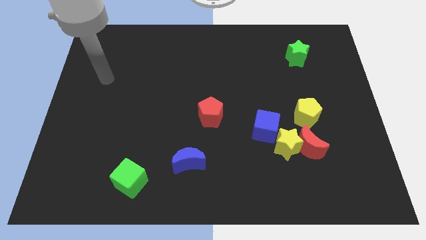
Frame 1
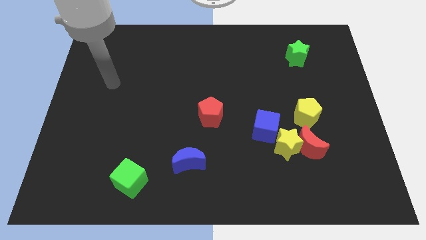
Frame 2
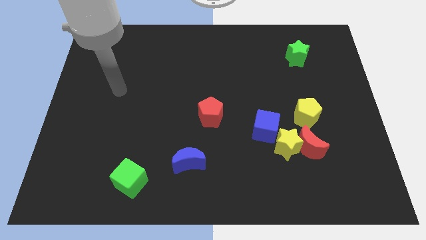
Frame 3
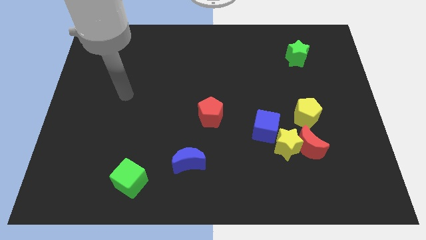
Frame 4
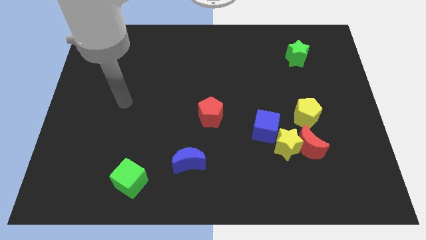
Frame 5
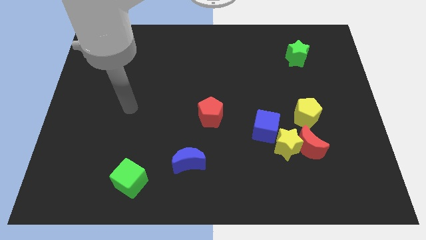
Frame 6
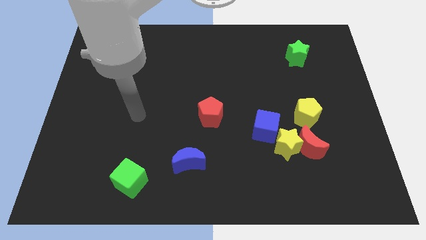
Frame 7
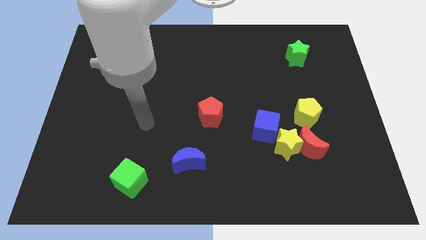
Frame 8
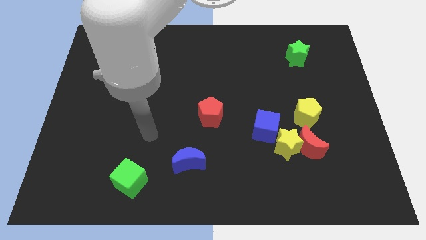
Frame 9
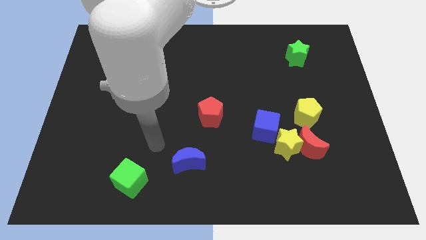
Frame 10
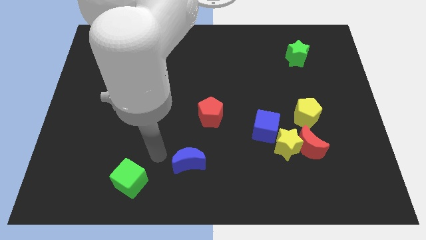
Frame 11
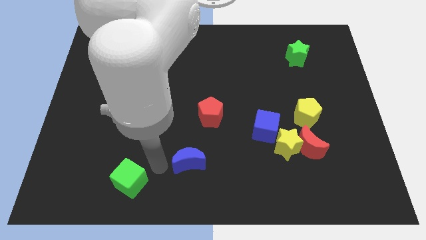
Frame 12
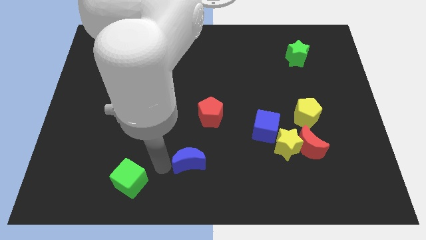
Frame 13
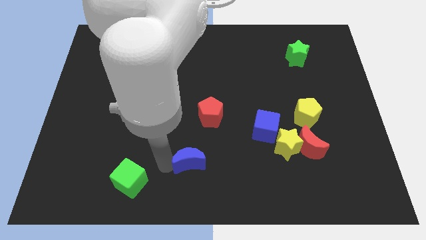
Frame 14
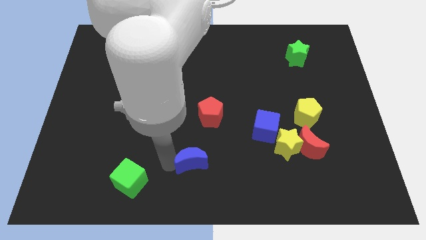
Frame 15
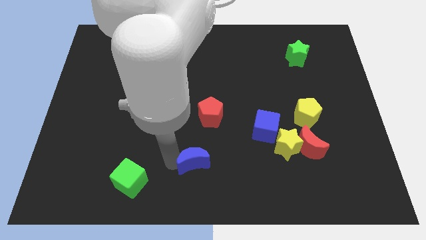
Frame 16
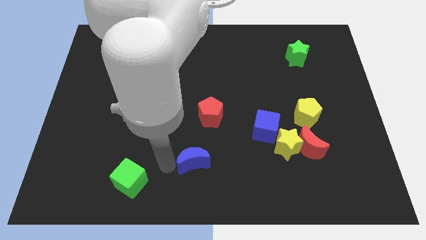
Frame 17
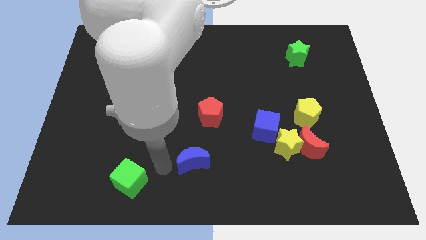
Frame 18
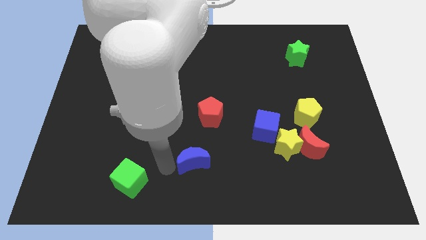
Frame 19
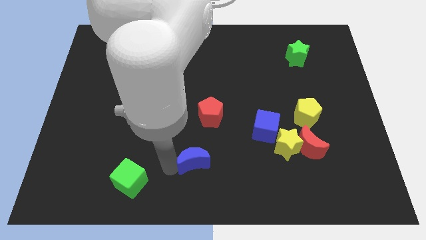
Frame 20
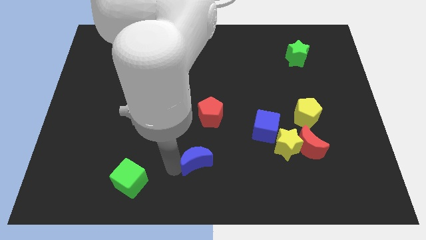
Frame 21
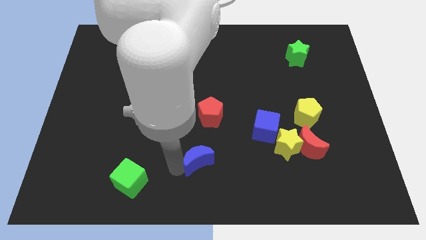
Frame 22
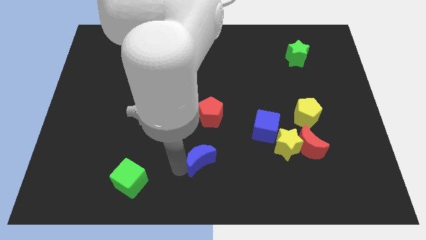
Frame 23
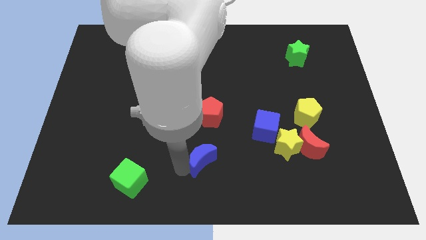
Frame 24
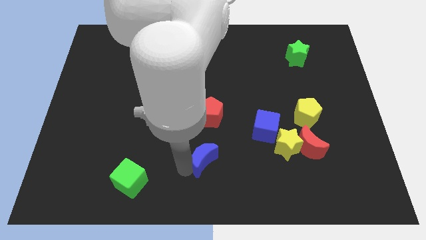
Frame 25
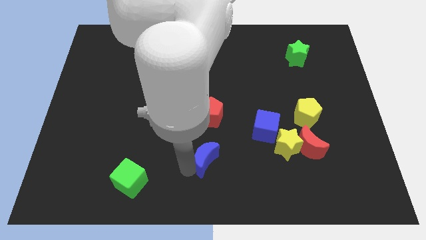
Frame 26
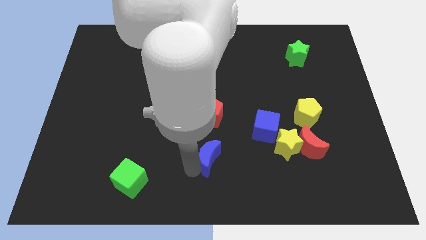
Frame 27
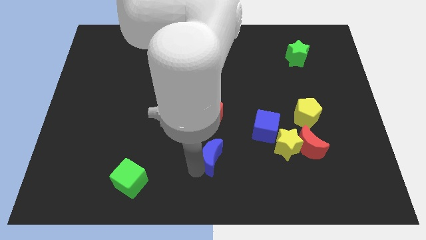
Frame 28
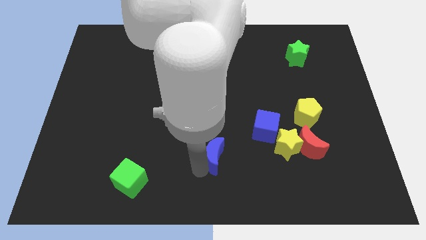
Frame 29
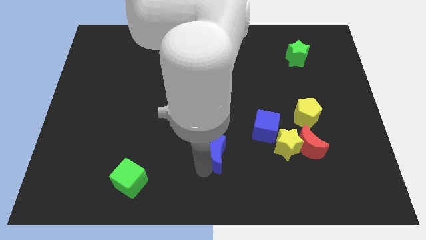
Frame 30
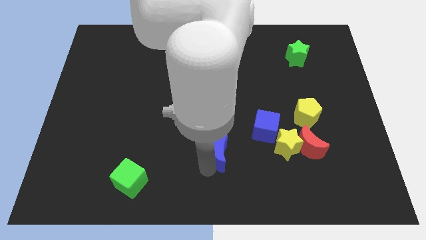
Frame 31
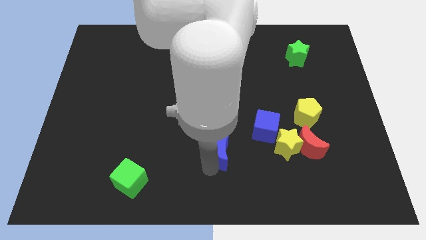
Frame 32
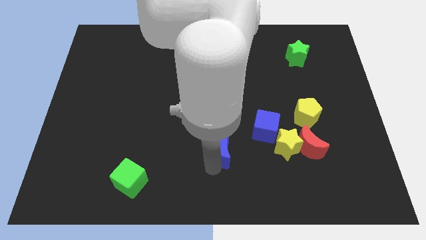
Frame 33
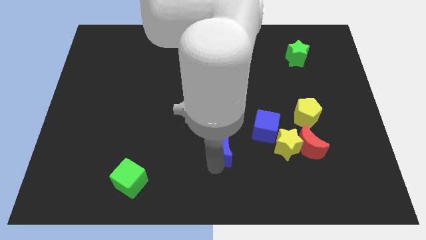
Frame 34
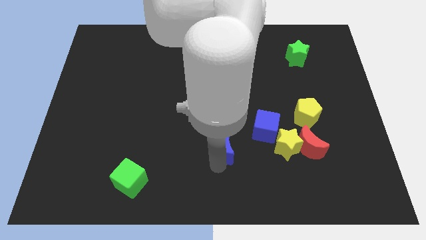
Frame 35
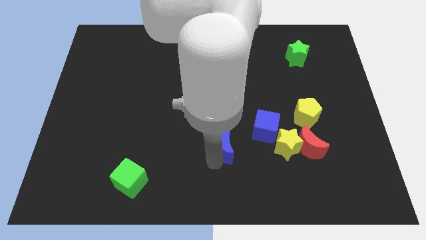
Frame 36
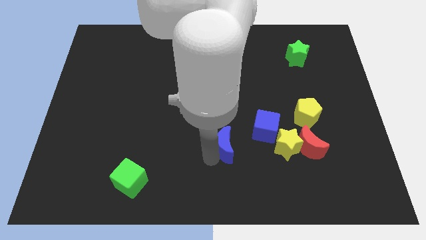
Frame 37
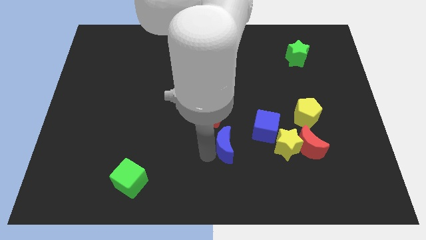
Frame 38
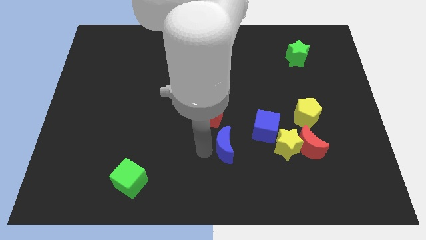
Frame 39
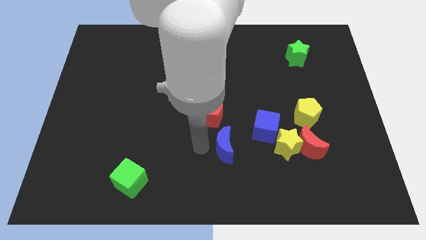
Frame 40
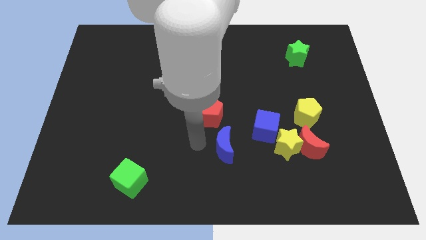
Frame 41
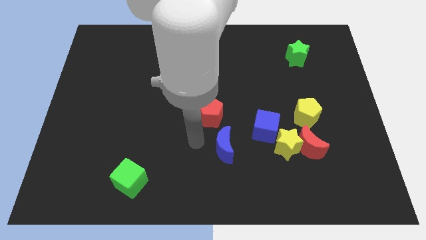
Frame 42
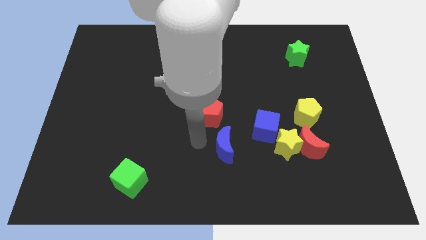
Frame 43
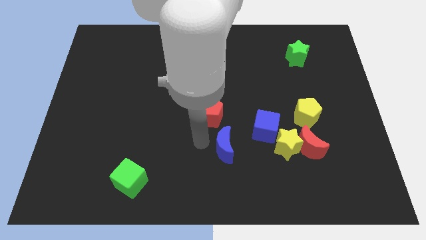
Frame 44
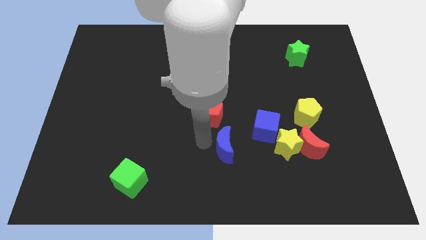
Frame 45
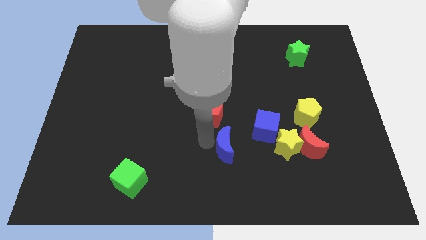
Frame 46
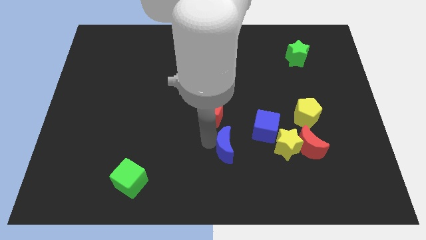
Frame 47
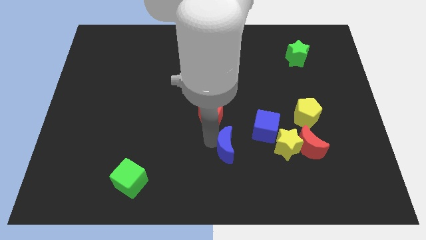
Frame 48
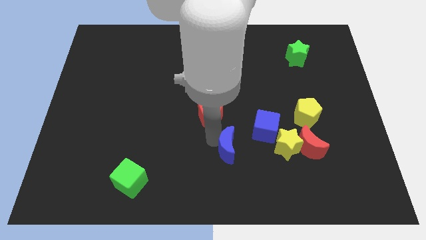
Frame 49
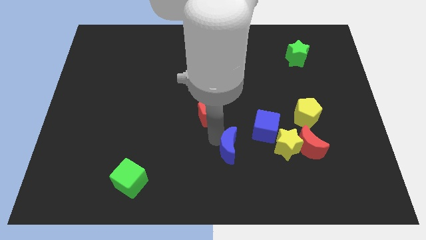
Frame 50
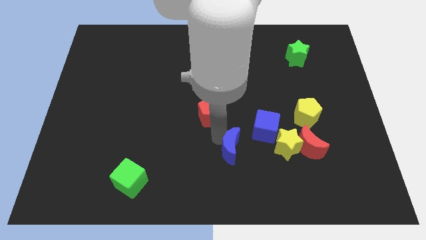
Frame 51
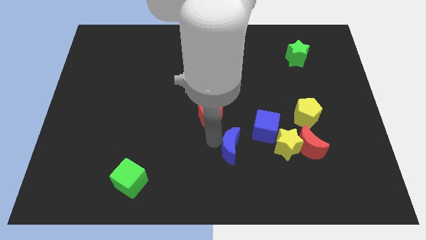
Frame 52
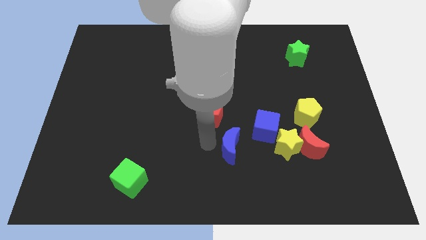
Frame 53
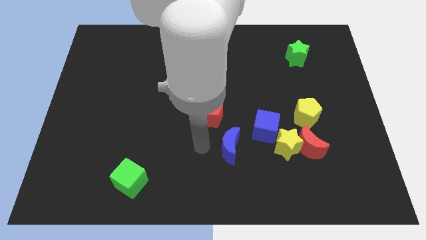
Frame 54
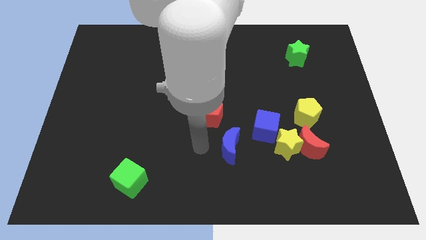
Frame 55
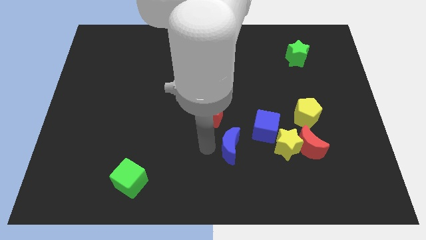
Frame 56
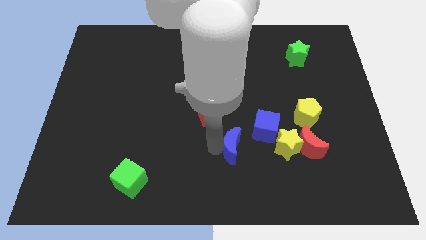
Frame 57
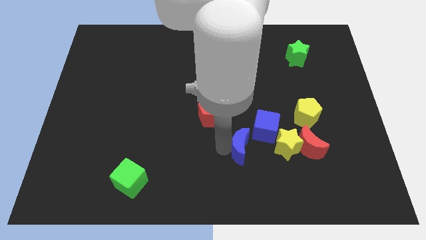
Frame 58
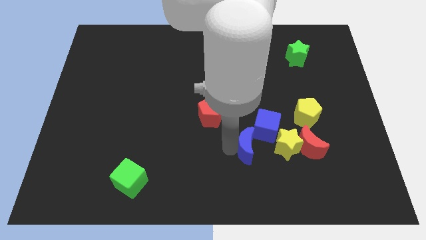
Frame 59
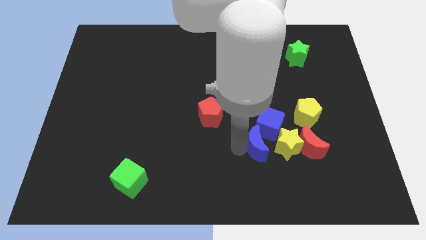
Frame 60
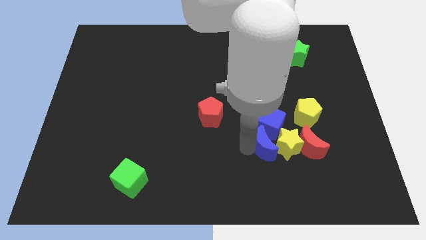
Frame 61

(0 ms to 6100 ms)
move the blue moon close to the yellow star

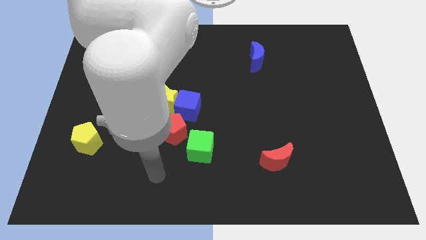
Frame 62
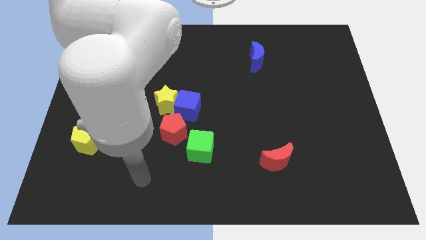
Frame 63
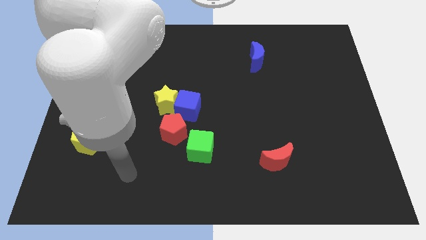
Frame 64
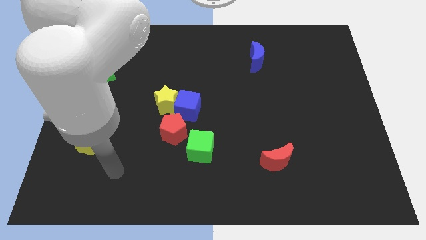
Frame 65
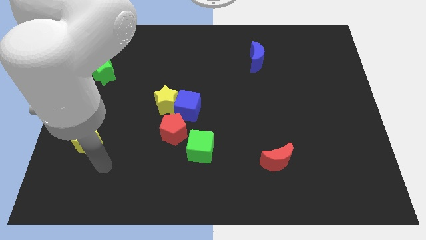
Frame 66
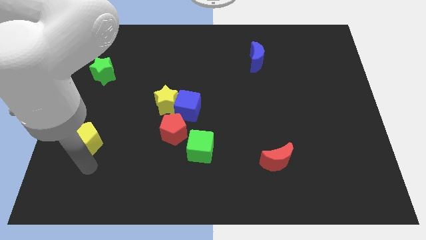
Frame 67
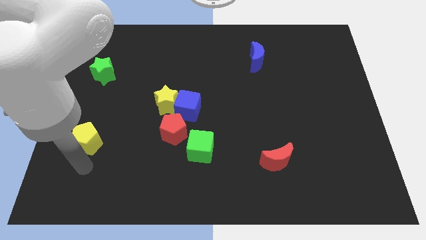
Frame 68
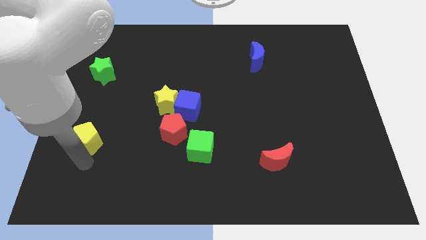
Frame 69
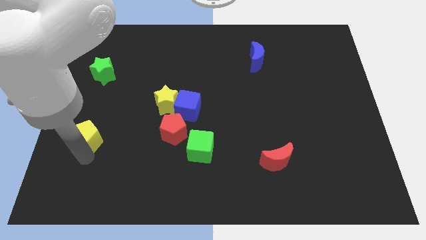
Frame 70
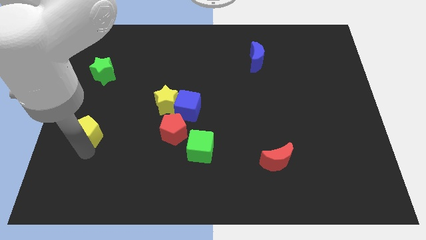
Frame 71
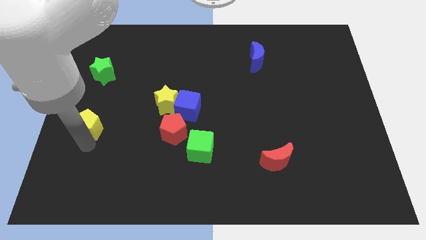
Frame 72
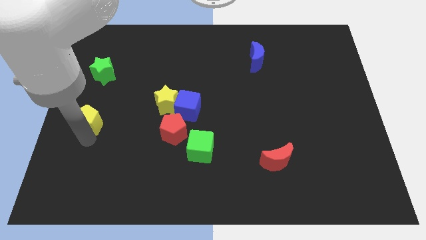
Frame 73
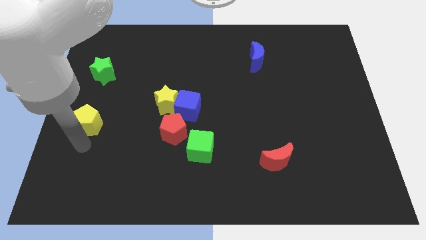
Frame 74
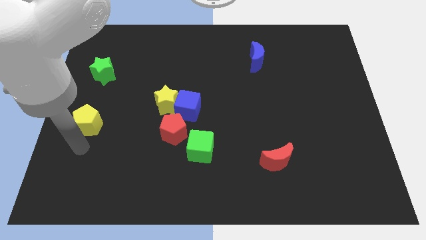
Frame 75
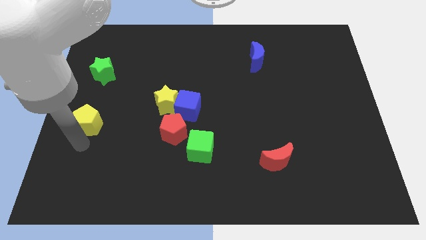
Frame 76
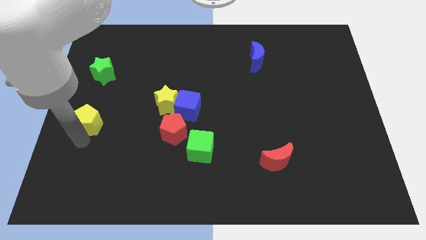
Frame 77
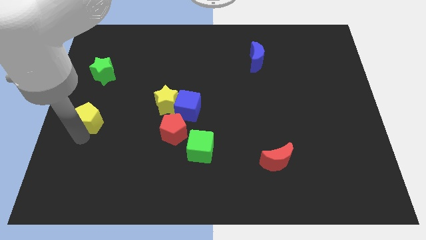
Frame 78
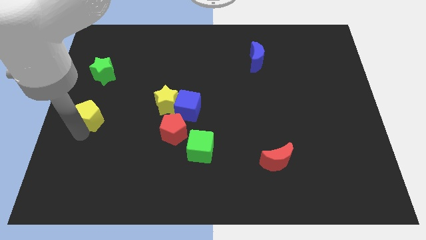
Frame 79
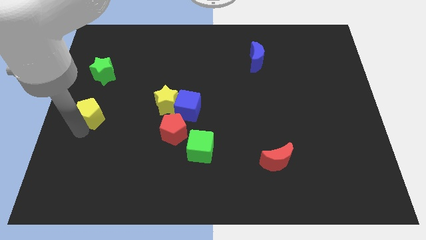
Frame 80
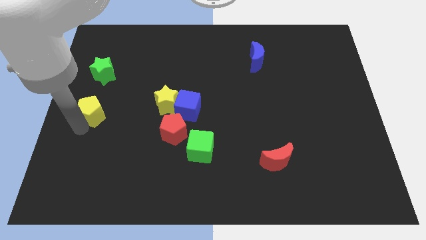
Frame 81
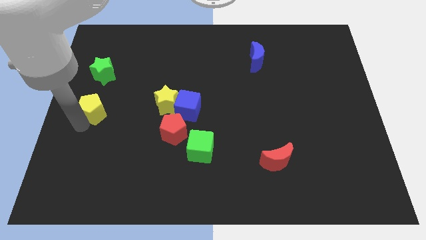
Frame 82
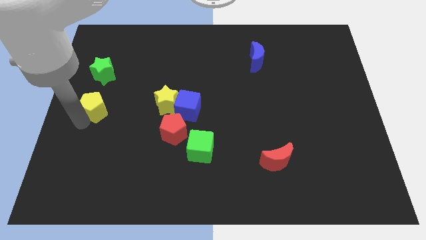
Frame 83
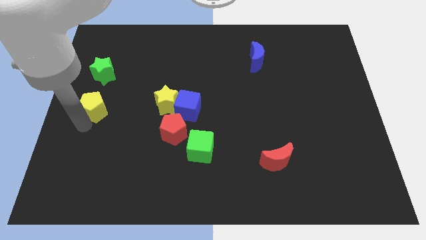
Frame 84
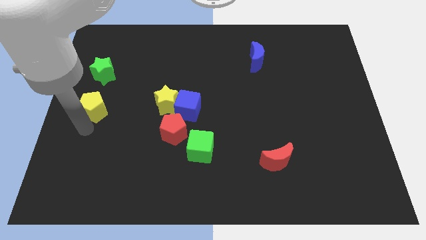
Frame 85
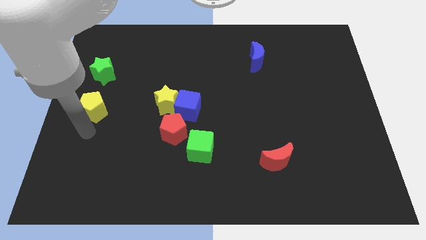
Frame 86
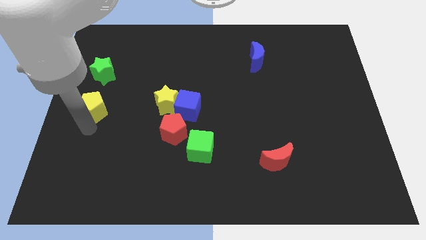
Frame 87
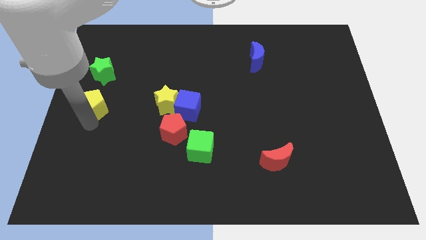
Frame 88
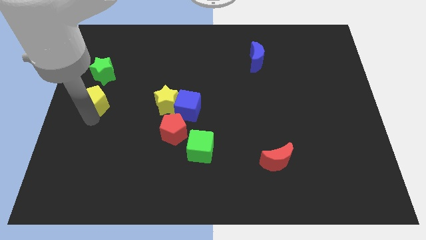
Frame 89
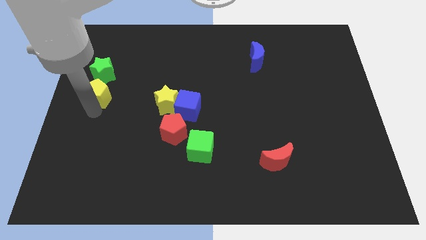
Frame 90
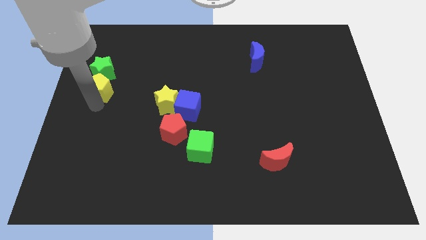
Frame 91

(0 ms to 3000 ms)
slide the yellow pentagon next to the green star
